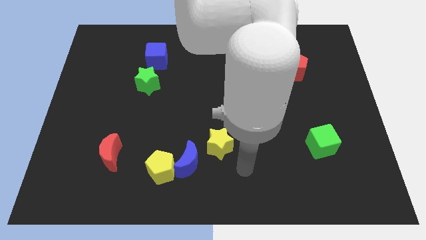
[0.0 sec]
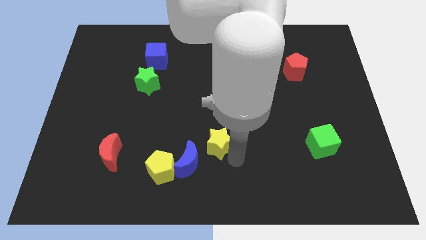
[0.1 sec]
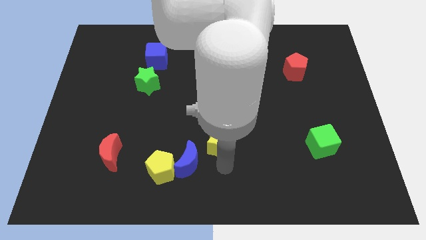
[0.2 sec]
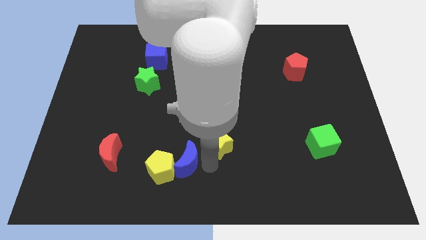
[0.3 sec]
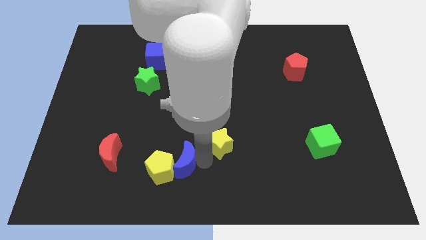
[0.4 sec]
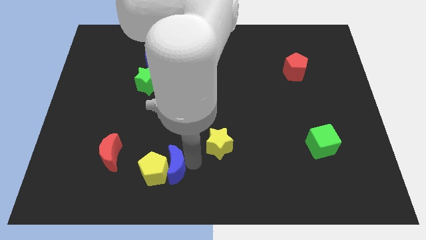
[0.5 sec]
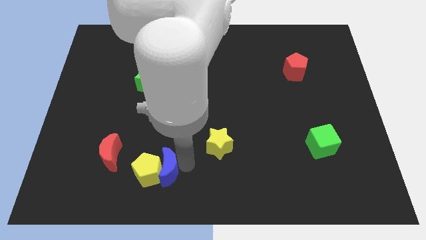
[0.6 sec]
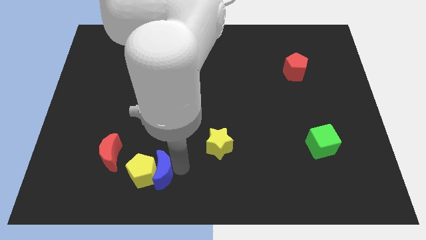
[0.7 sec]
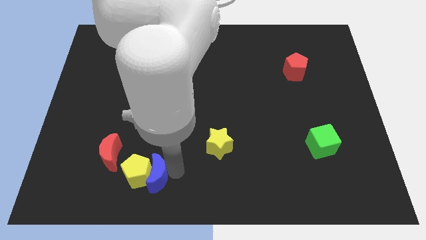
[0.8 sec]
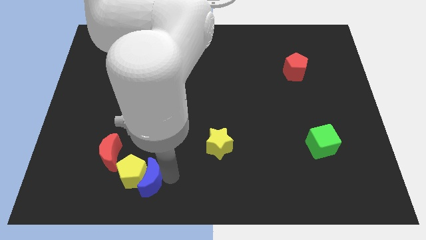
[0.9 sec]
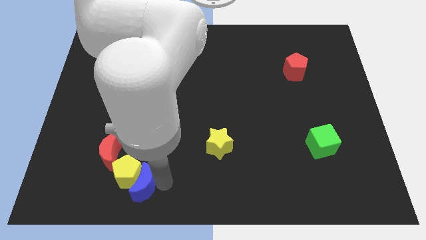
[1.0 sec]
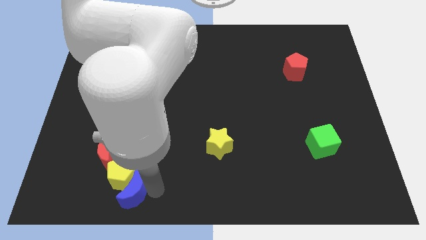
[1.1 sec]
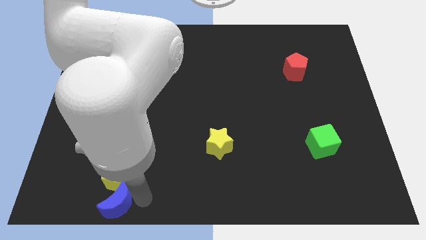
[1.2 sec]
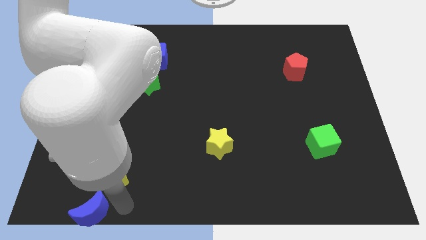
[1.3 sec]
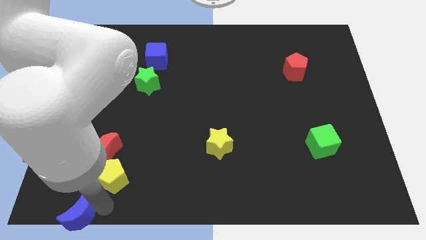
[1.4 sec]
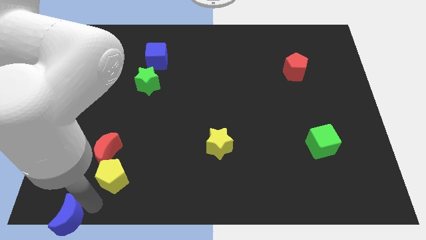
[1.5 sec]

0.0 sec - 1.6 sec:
separate the yellow pentagon from the blue moon

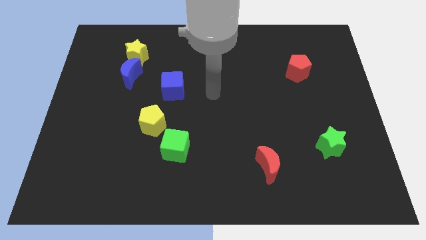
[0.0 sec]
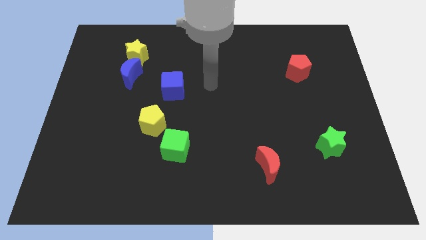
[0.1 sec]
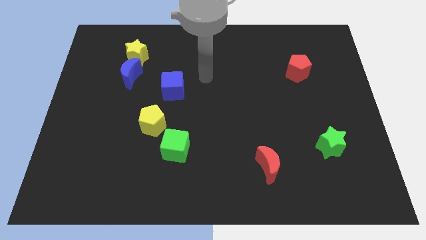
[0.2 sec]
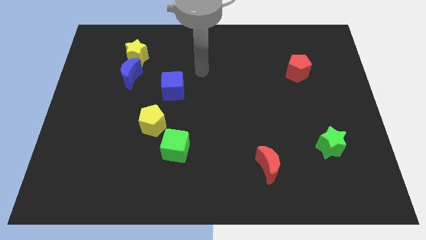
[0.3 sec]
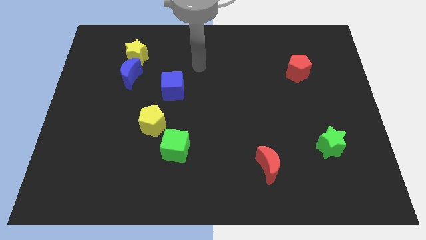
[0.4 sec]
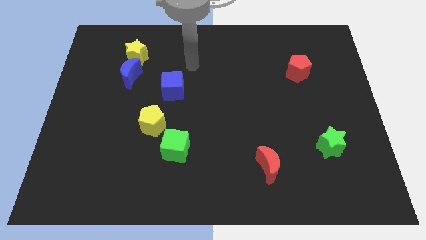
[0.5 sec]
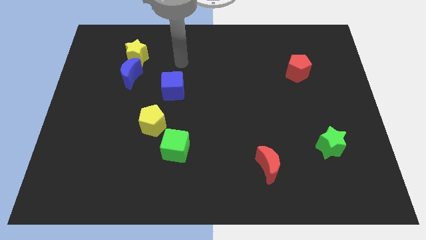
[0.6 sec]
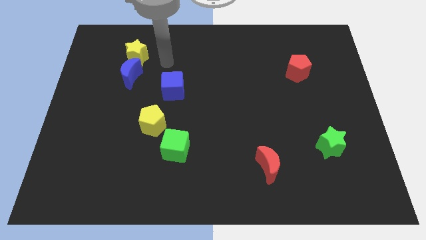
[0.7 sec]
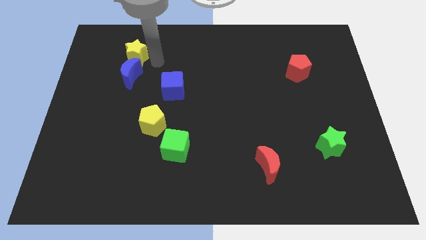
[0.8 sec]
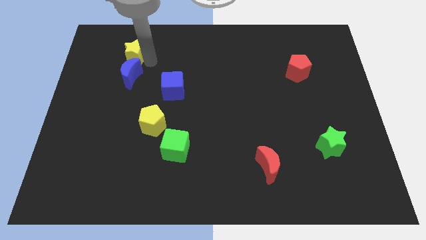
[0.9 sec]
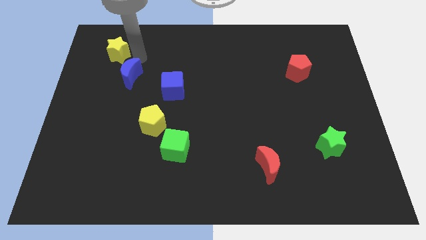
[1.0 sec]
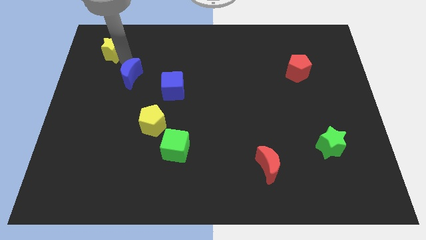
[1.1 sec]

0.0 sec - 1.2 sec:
move the blue moon away from the yellow star

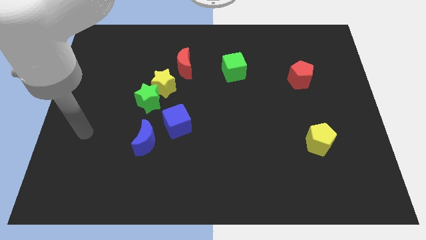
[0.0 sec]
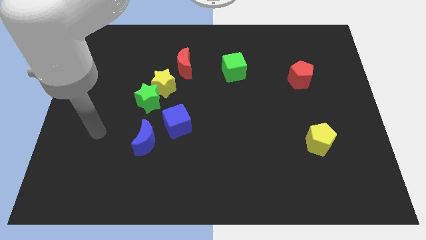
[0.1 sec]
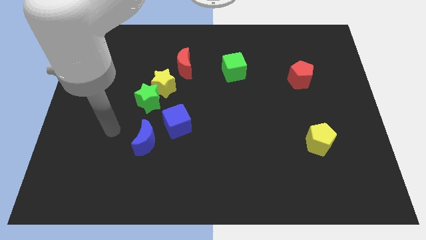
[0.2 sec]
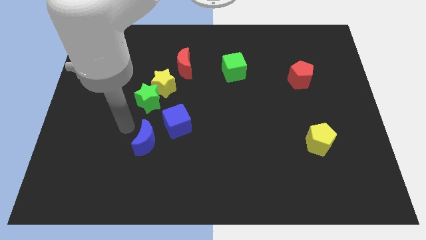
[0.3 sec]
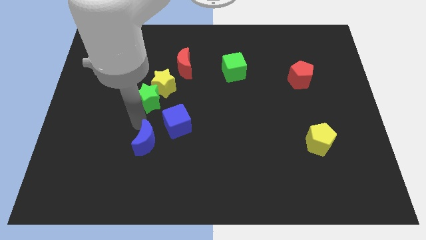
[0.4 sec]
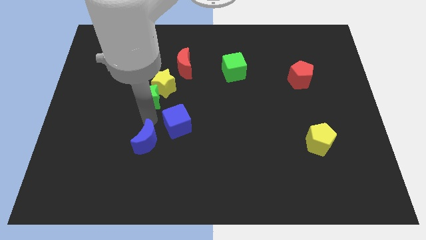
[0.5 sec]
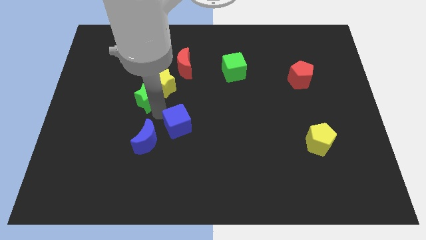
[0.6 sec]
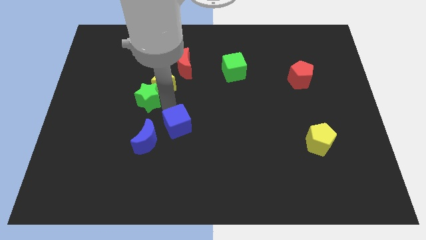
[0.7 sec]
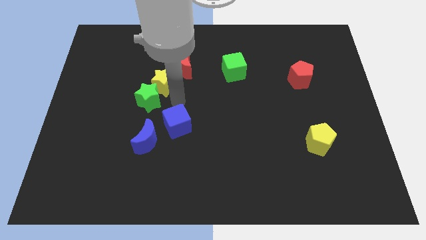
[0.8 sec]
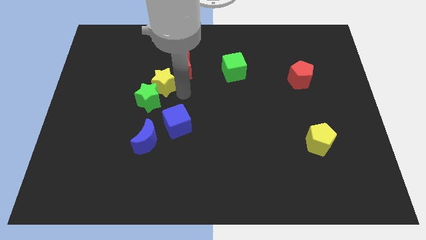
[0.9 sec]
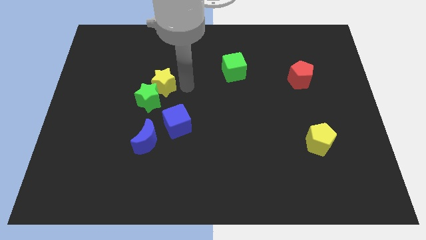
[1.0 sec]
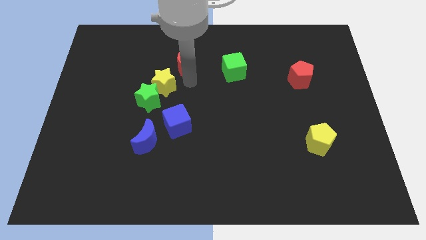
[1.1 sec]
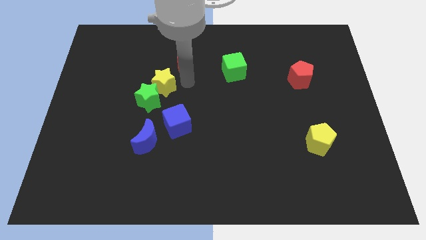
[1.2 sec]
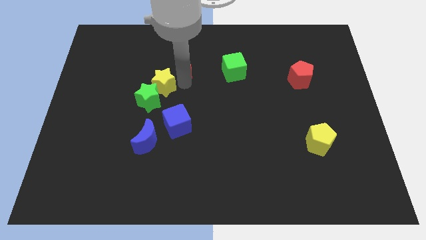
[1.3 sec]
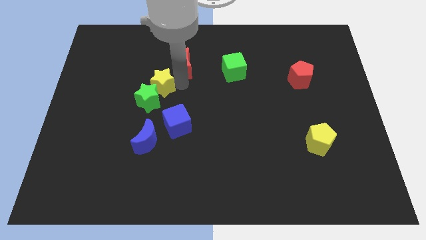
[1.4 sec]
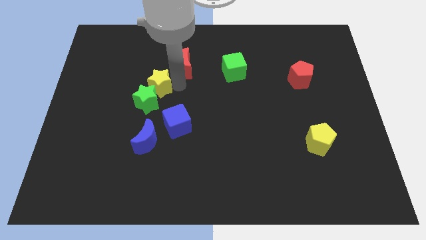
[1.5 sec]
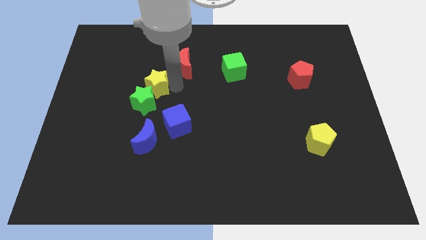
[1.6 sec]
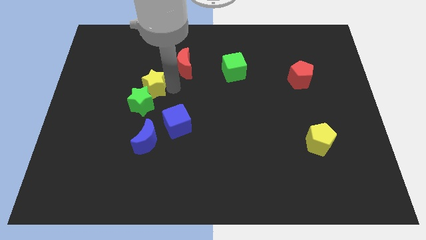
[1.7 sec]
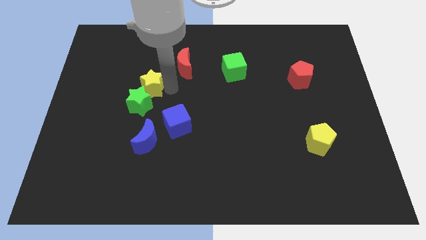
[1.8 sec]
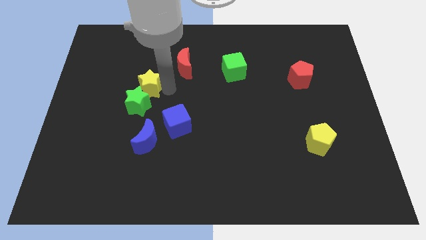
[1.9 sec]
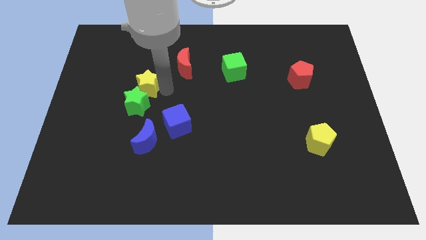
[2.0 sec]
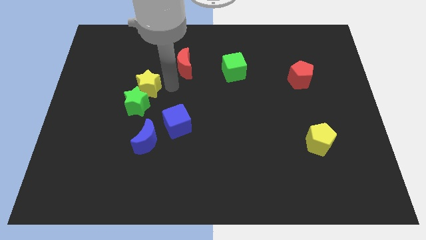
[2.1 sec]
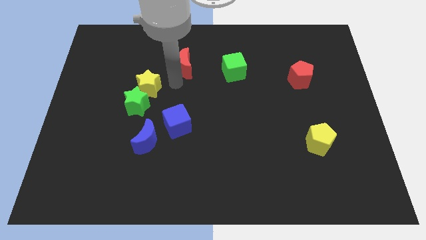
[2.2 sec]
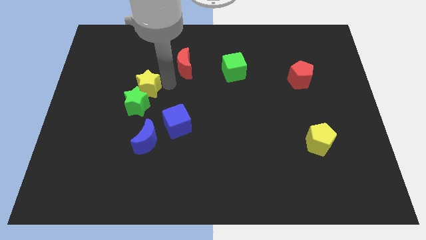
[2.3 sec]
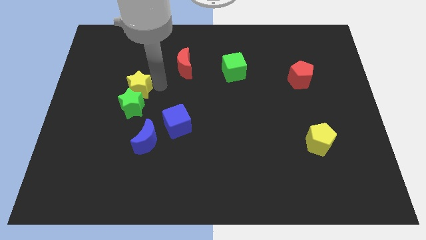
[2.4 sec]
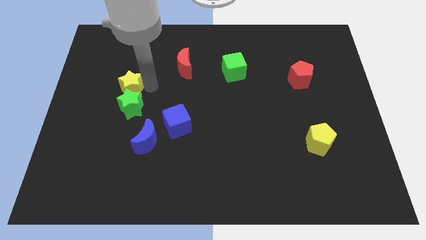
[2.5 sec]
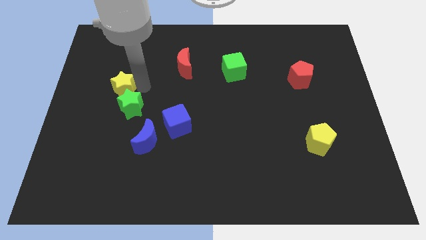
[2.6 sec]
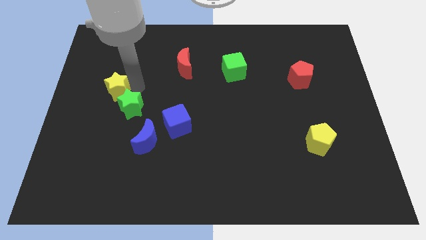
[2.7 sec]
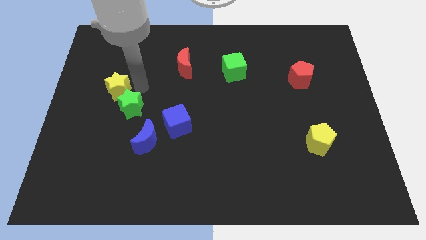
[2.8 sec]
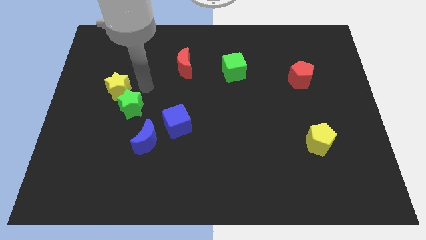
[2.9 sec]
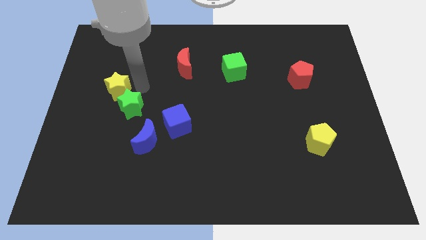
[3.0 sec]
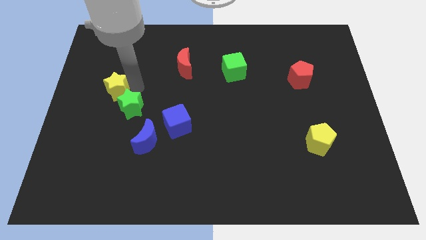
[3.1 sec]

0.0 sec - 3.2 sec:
separate the yellow star from the green star and red moon

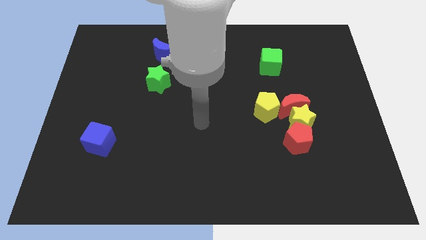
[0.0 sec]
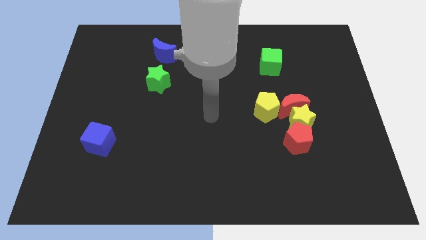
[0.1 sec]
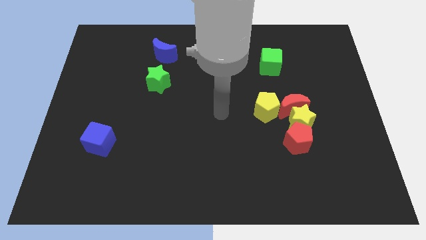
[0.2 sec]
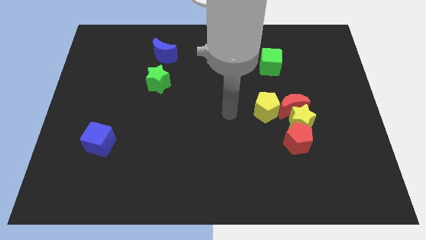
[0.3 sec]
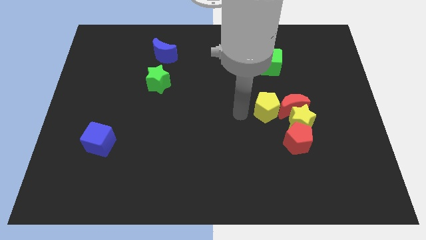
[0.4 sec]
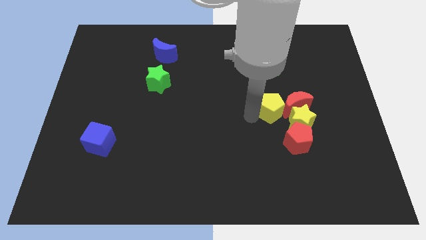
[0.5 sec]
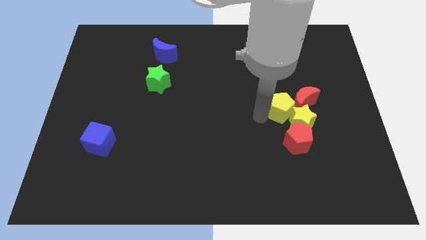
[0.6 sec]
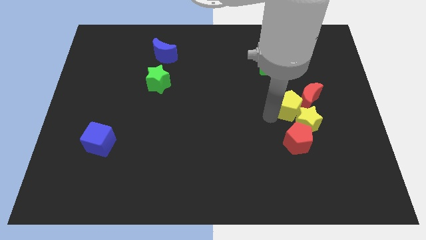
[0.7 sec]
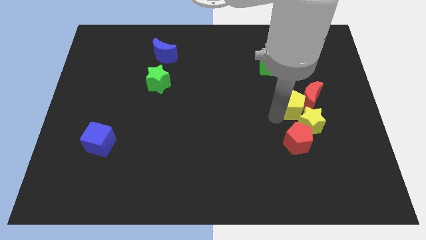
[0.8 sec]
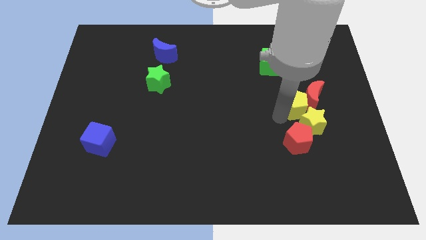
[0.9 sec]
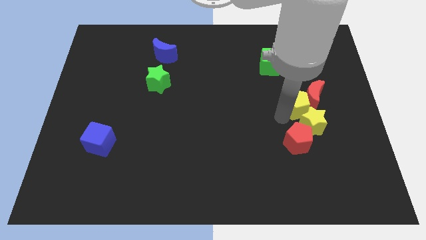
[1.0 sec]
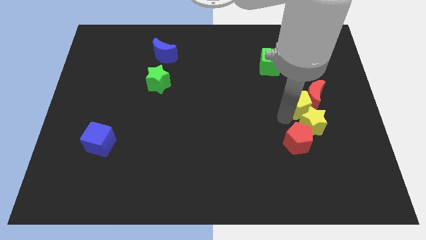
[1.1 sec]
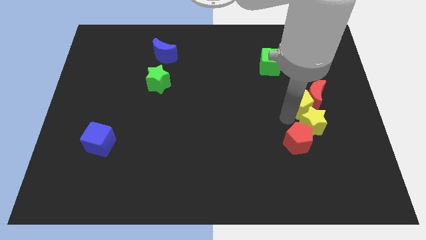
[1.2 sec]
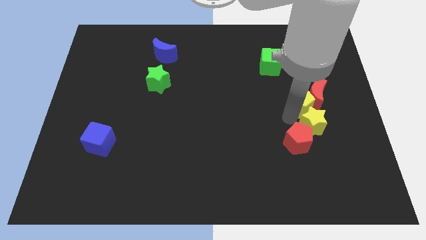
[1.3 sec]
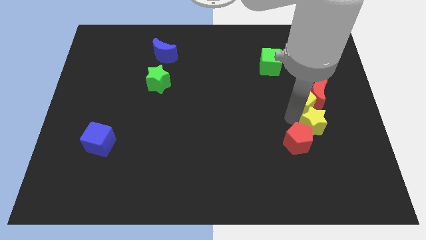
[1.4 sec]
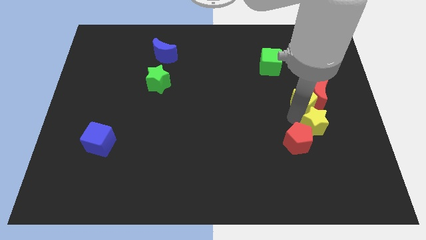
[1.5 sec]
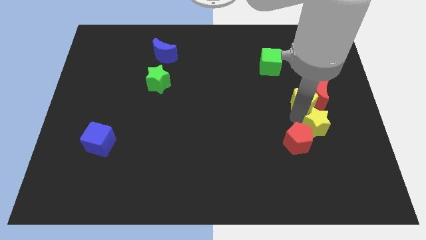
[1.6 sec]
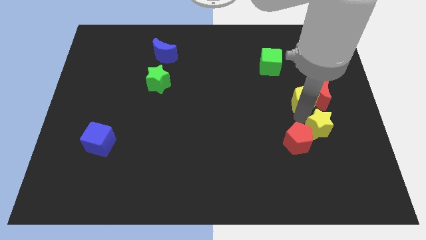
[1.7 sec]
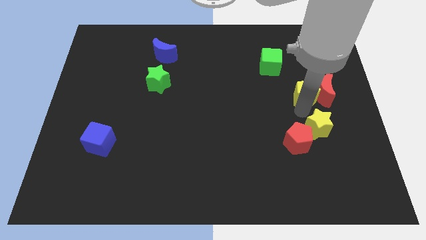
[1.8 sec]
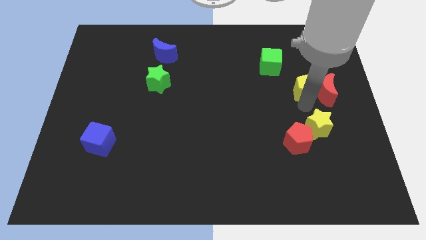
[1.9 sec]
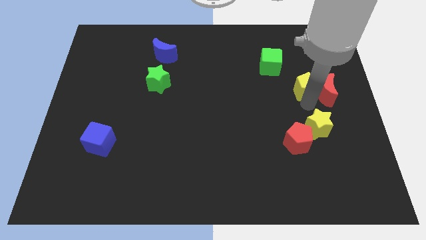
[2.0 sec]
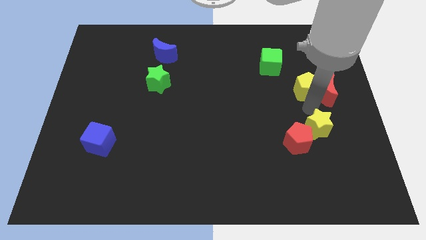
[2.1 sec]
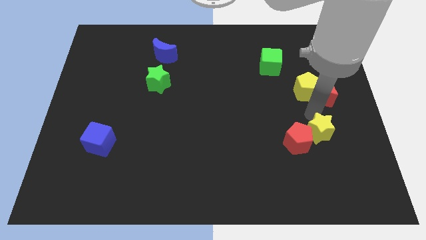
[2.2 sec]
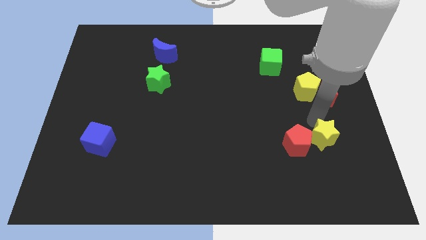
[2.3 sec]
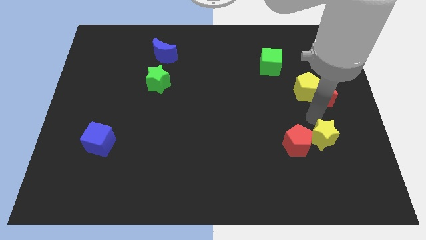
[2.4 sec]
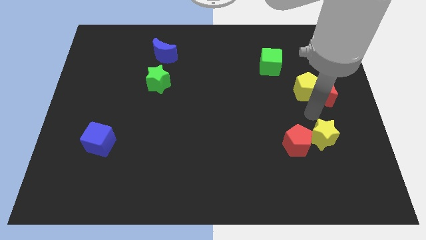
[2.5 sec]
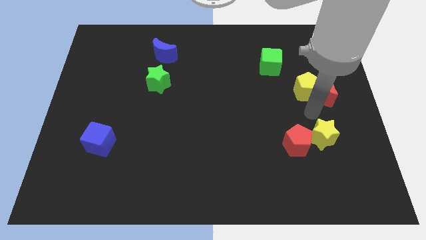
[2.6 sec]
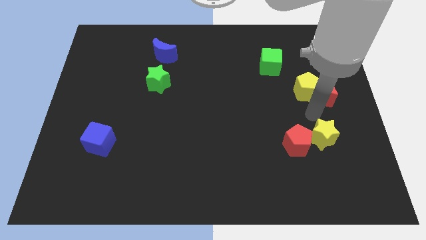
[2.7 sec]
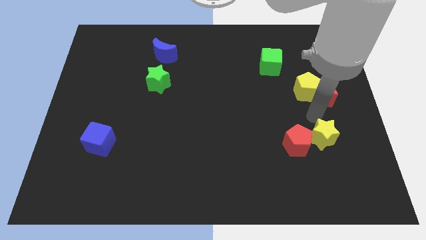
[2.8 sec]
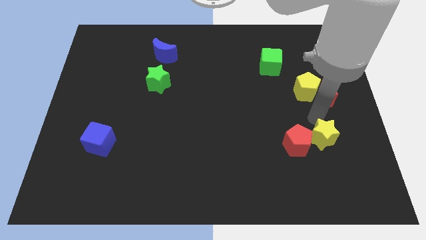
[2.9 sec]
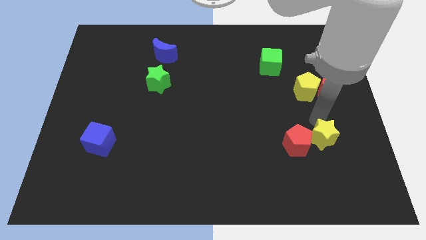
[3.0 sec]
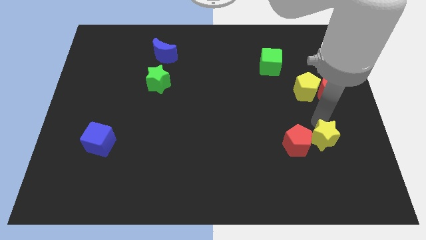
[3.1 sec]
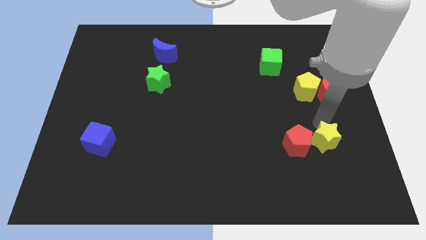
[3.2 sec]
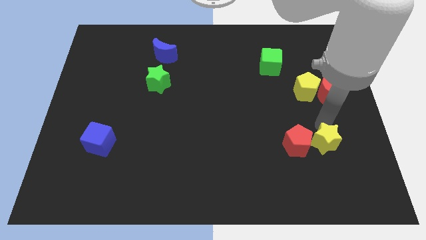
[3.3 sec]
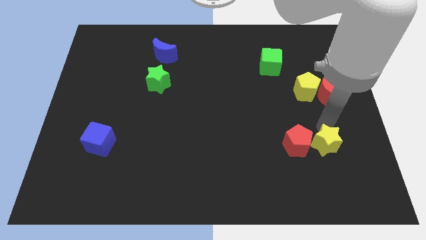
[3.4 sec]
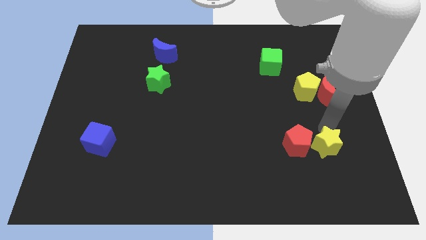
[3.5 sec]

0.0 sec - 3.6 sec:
pull the yellow star apart from the red moon, red pentagon, and yellow pentagon
